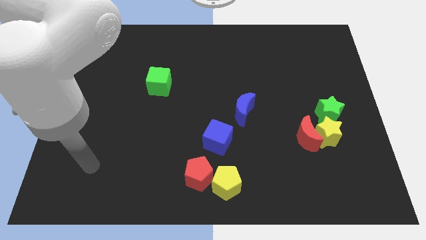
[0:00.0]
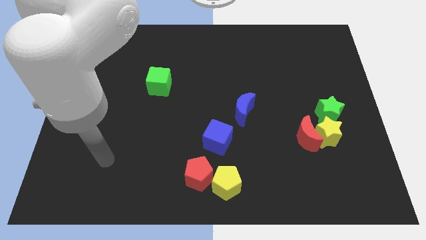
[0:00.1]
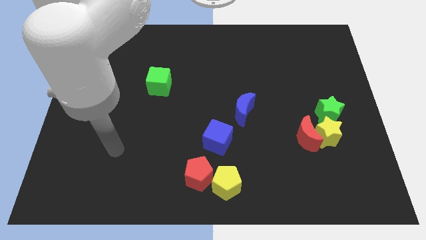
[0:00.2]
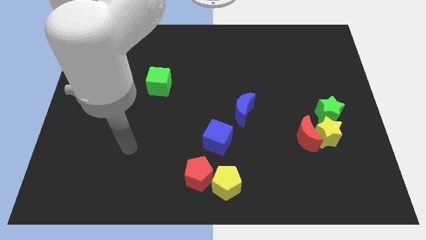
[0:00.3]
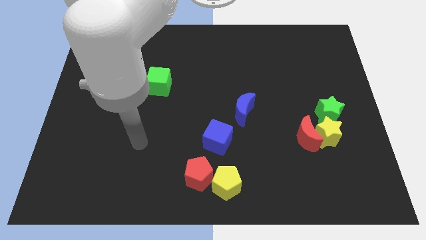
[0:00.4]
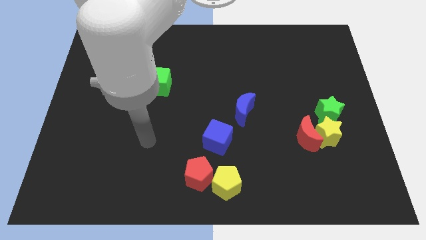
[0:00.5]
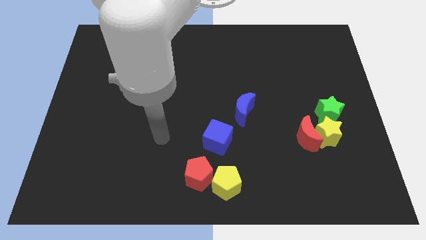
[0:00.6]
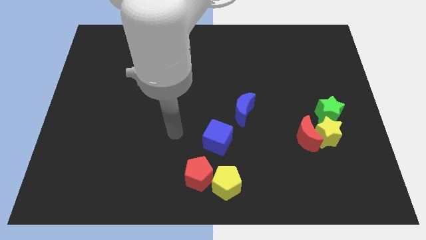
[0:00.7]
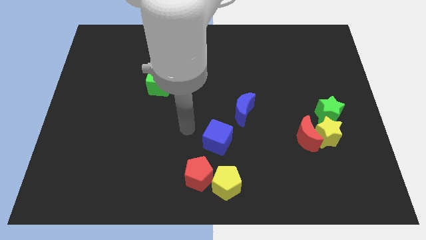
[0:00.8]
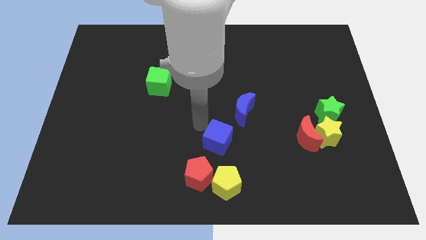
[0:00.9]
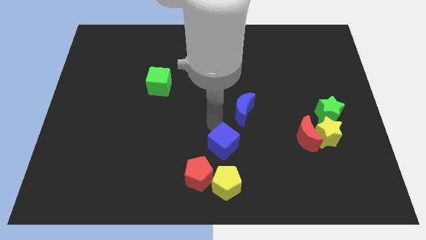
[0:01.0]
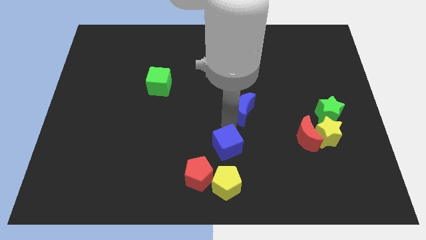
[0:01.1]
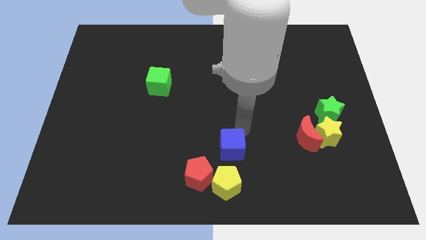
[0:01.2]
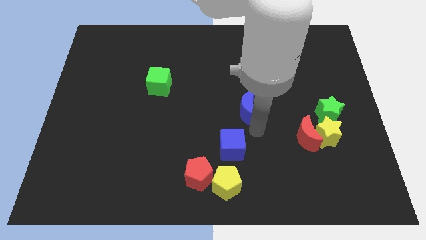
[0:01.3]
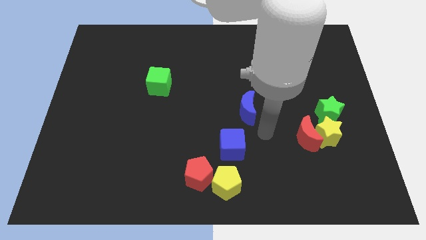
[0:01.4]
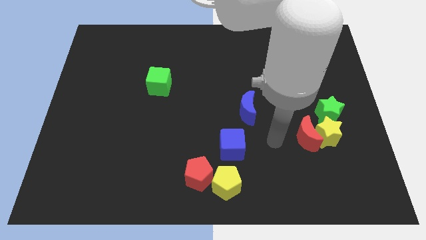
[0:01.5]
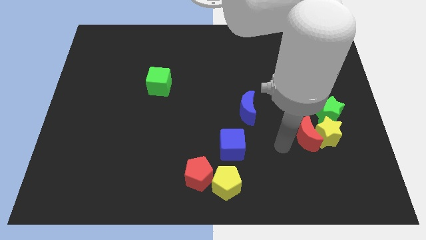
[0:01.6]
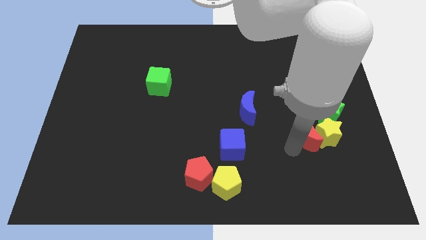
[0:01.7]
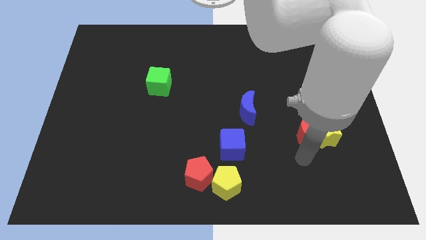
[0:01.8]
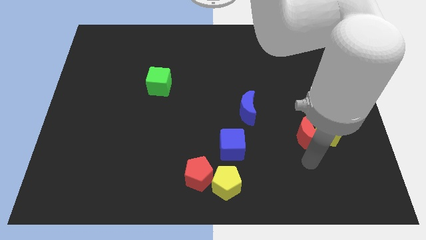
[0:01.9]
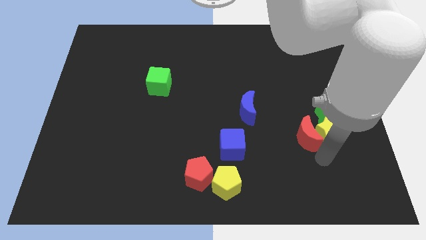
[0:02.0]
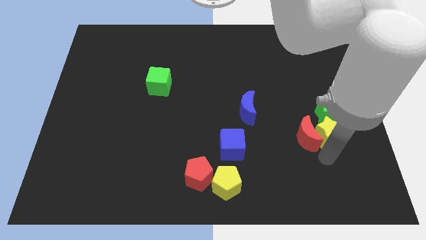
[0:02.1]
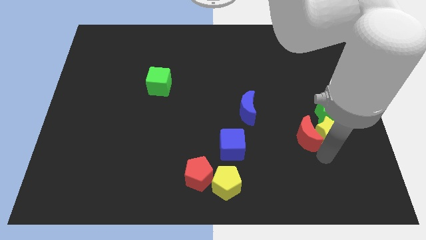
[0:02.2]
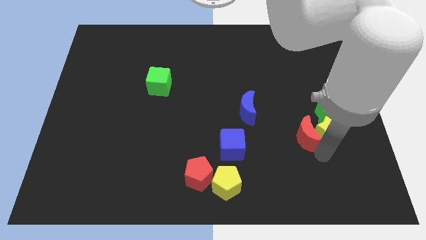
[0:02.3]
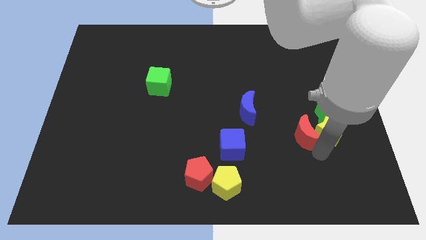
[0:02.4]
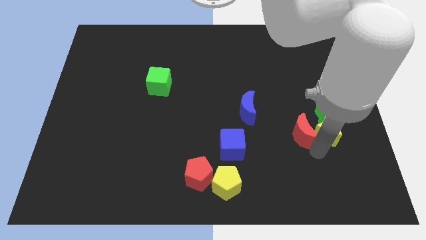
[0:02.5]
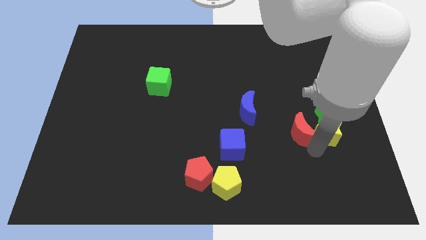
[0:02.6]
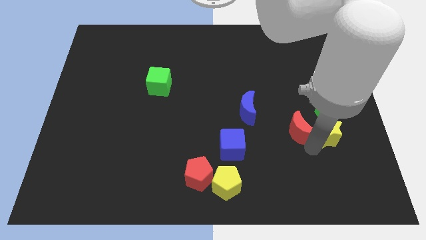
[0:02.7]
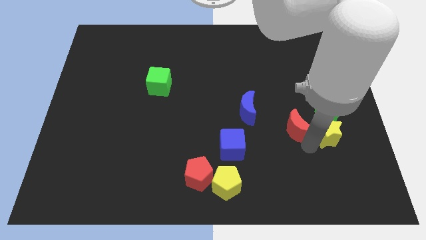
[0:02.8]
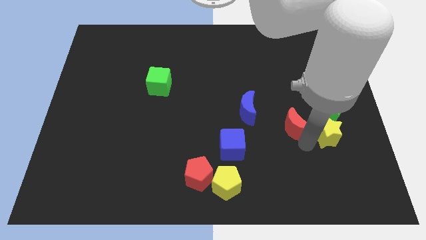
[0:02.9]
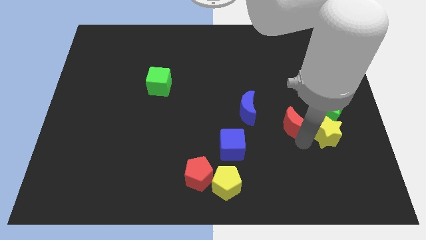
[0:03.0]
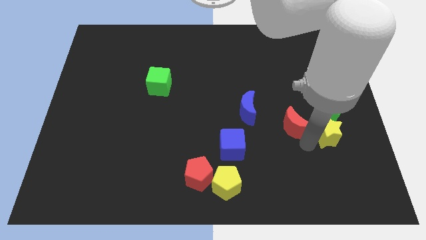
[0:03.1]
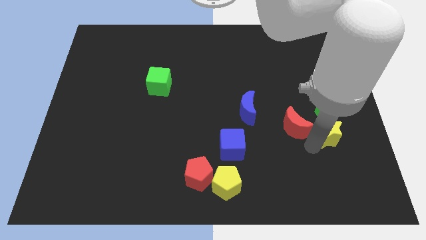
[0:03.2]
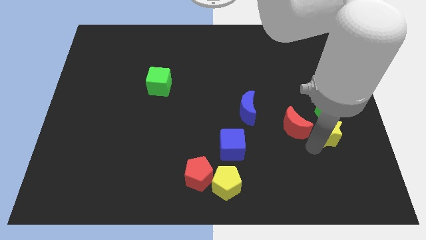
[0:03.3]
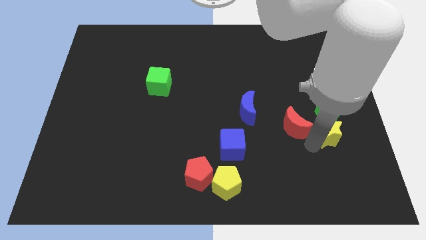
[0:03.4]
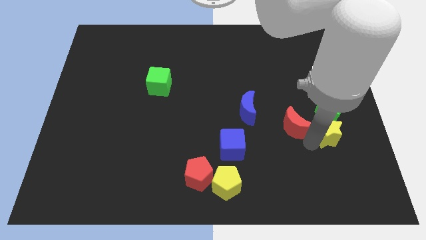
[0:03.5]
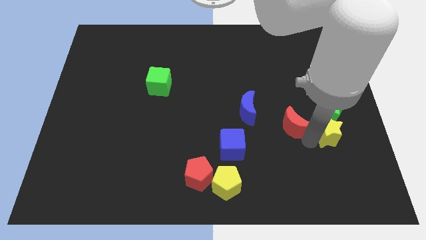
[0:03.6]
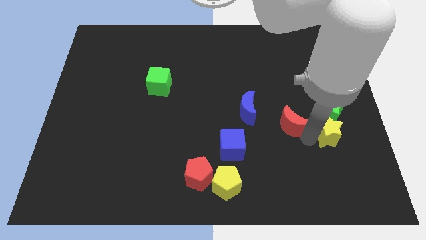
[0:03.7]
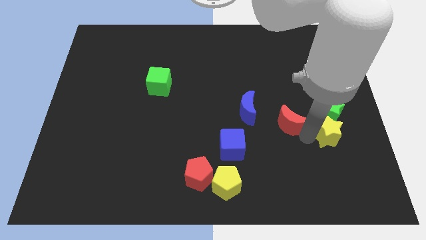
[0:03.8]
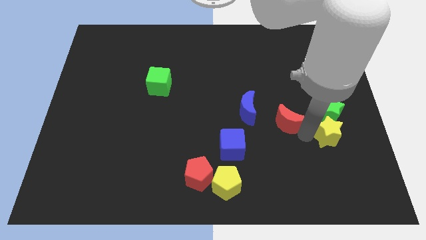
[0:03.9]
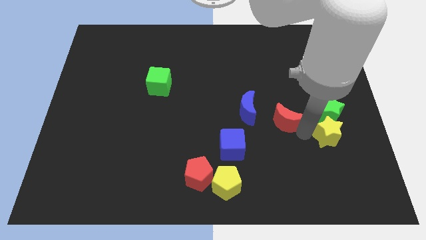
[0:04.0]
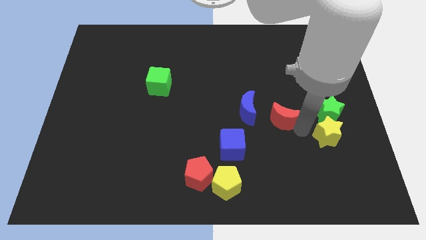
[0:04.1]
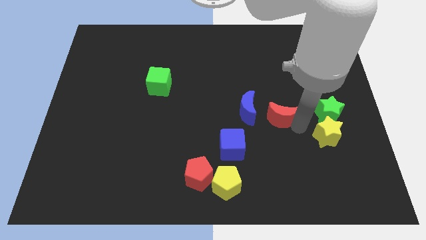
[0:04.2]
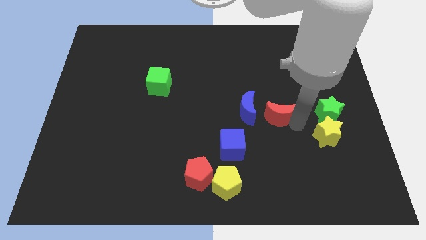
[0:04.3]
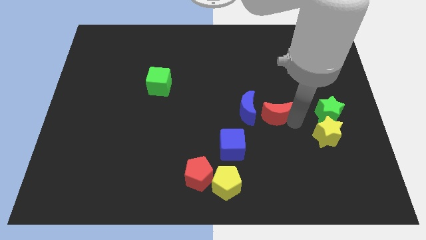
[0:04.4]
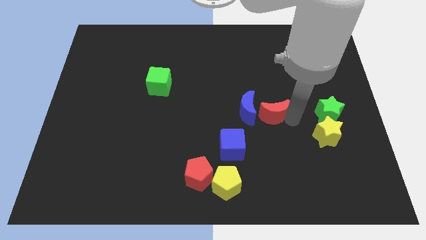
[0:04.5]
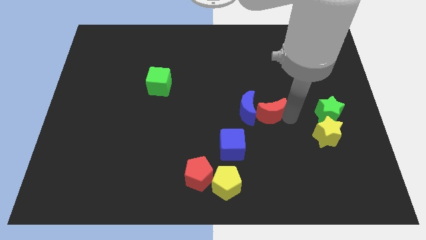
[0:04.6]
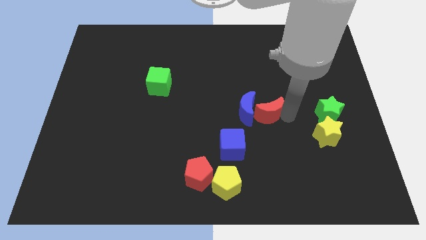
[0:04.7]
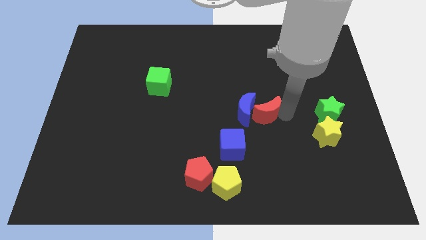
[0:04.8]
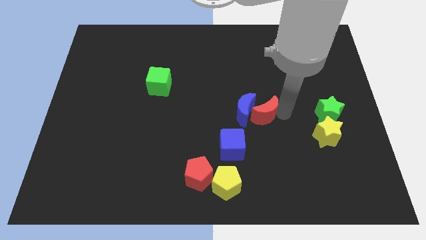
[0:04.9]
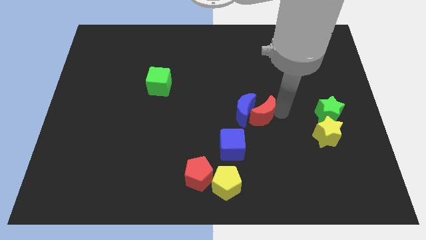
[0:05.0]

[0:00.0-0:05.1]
slide the red moon to the center of the board
